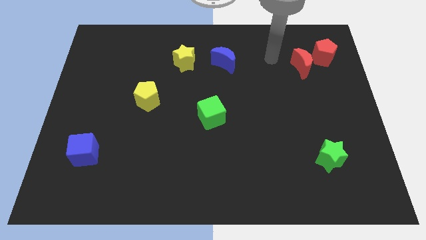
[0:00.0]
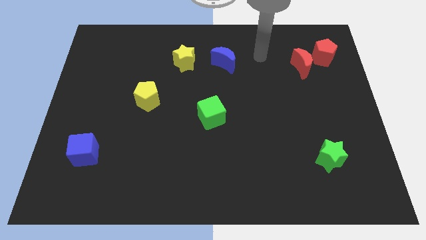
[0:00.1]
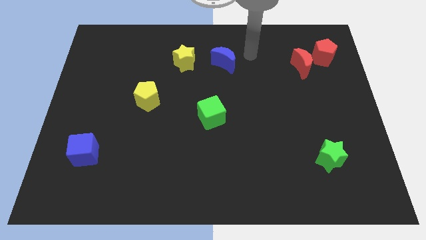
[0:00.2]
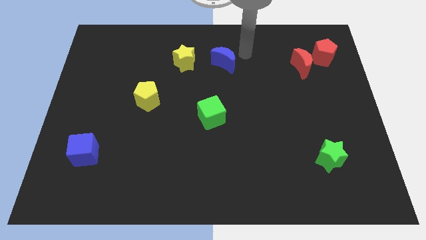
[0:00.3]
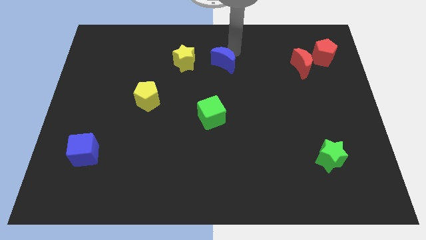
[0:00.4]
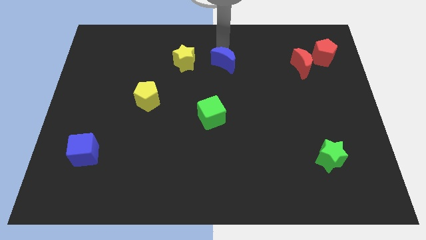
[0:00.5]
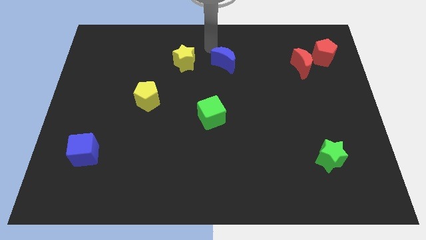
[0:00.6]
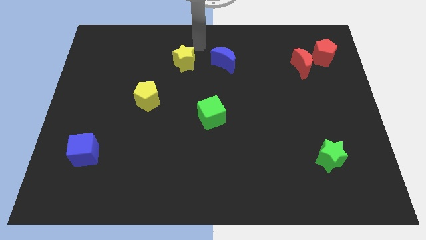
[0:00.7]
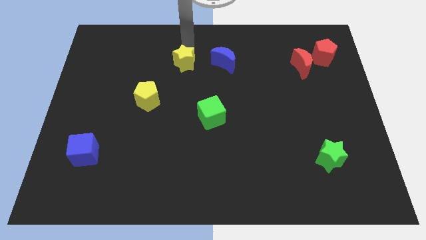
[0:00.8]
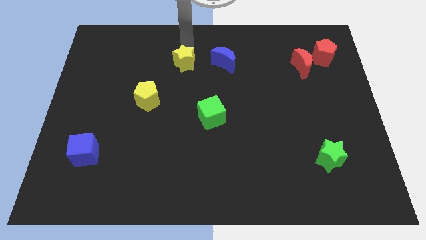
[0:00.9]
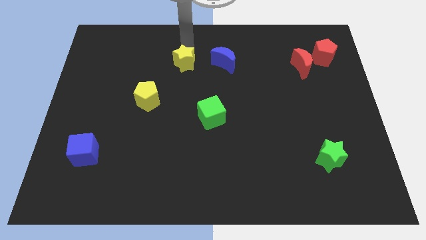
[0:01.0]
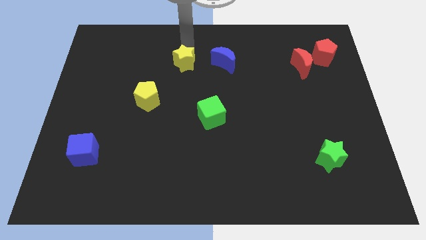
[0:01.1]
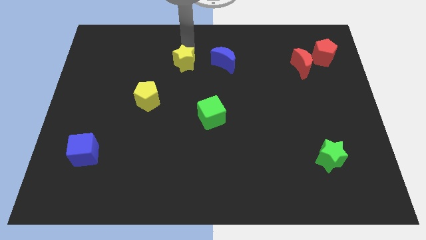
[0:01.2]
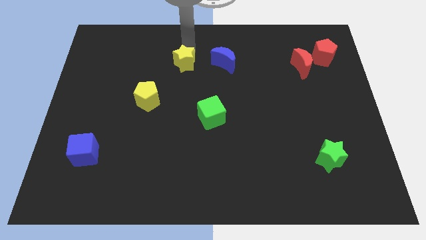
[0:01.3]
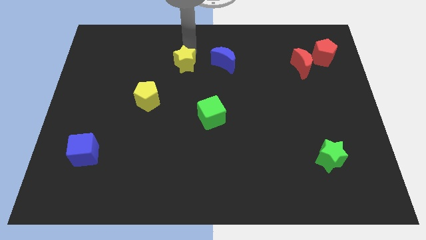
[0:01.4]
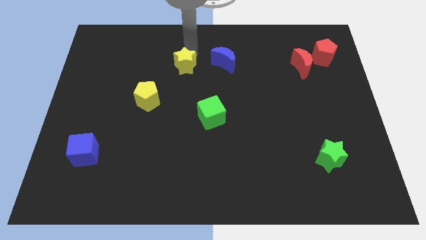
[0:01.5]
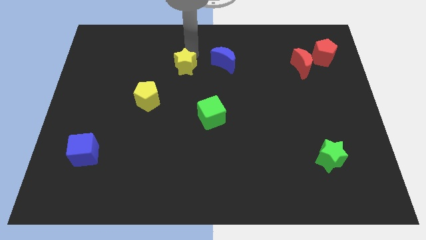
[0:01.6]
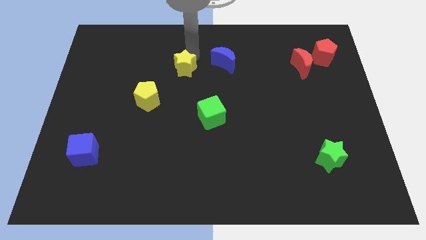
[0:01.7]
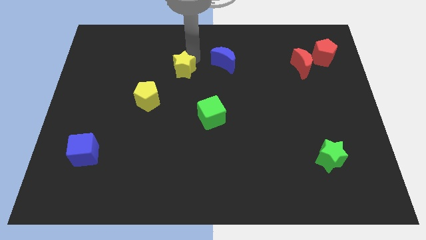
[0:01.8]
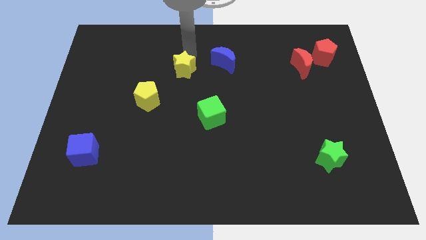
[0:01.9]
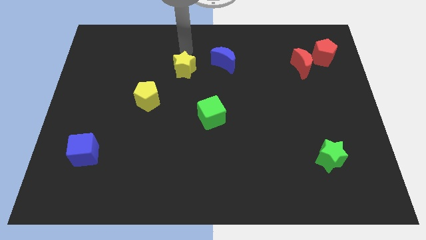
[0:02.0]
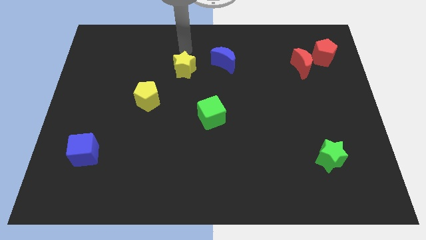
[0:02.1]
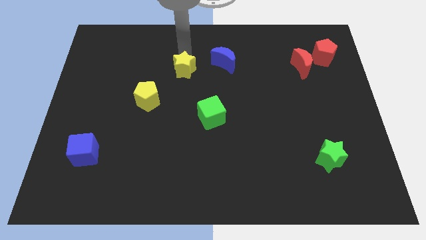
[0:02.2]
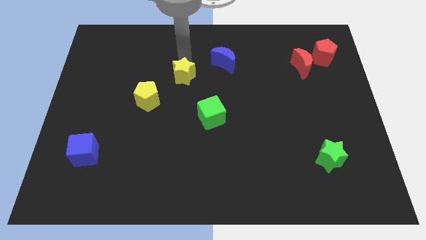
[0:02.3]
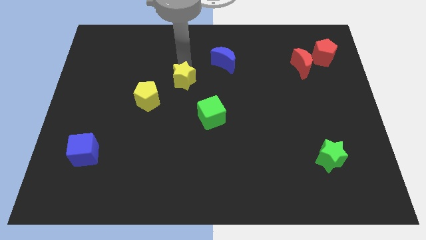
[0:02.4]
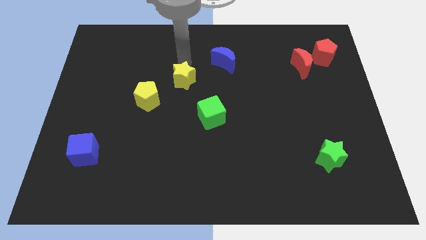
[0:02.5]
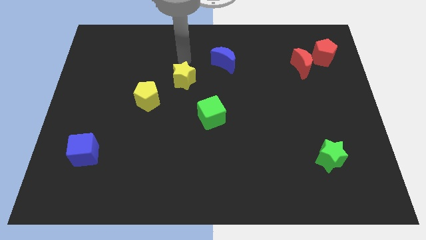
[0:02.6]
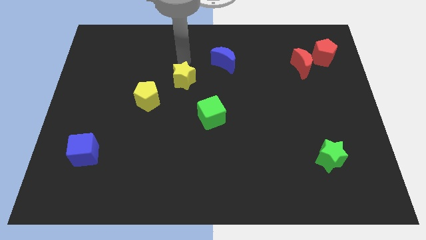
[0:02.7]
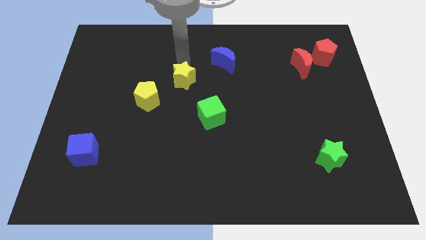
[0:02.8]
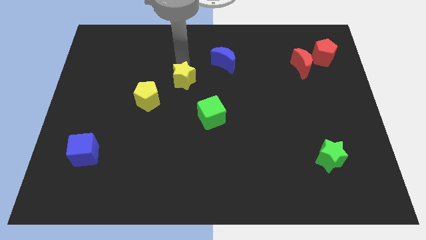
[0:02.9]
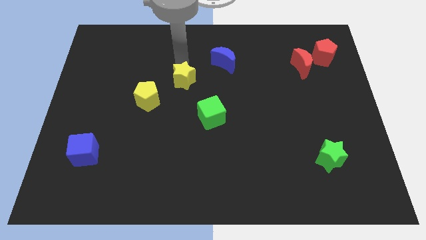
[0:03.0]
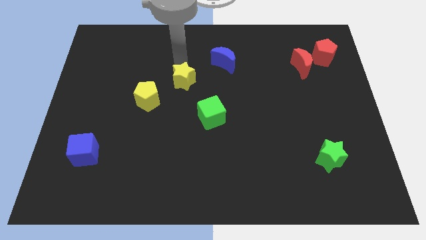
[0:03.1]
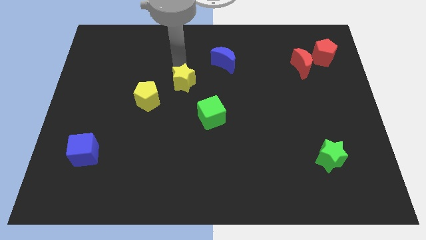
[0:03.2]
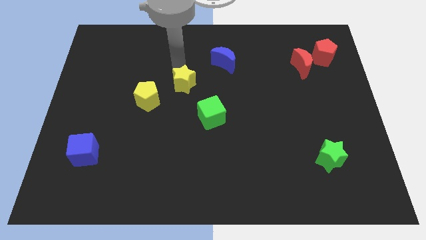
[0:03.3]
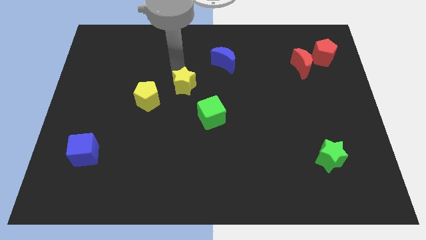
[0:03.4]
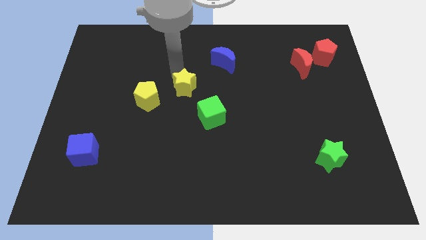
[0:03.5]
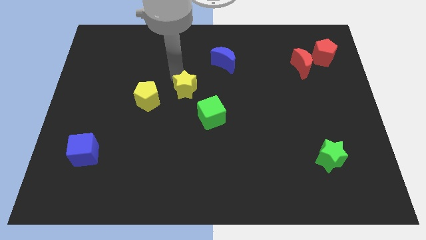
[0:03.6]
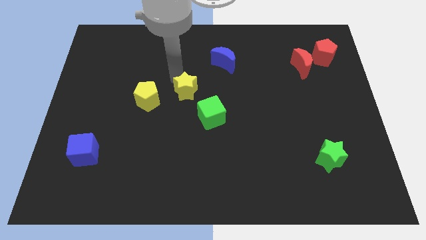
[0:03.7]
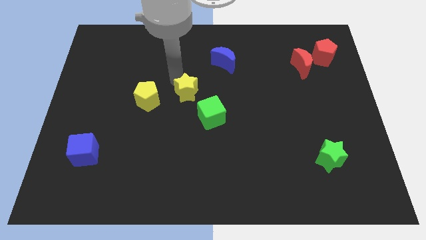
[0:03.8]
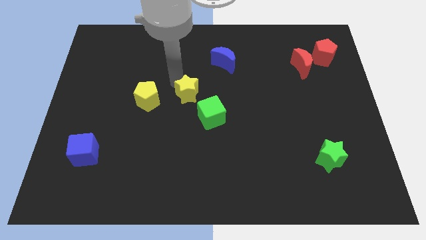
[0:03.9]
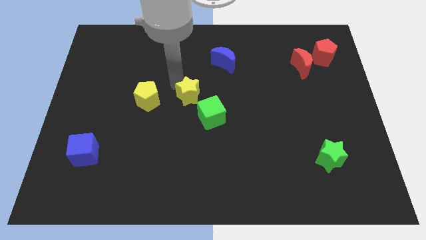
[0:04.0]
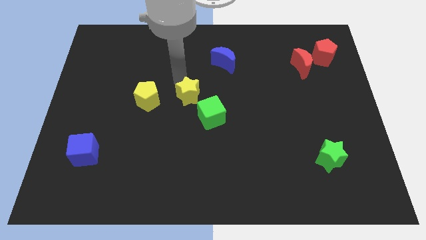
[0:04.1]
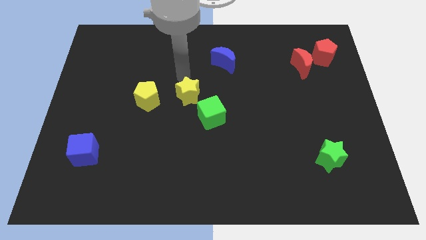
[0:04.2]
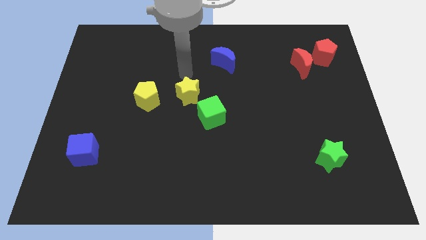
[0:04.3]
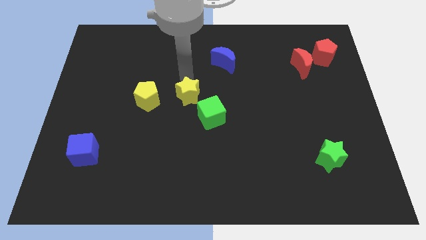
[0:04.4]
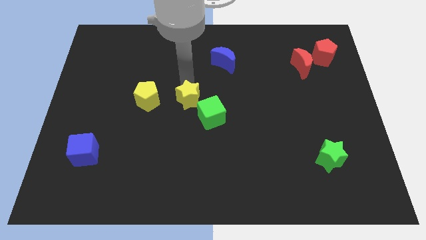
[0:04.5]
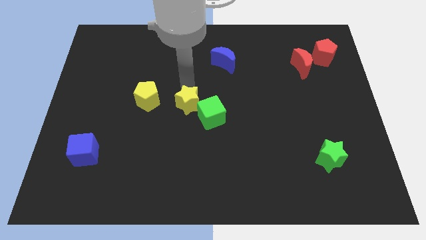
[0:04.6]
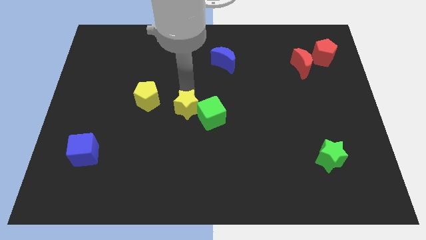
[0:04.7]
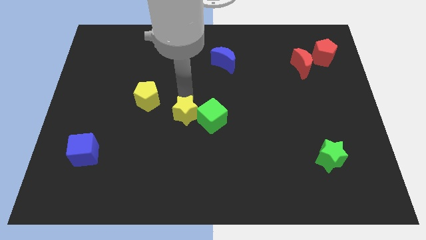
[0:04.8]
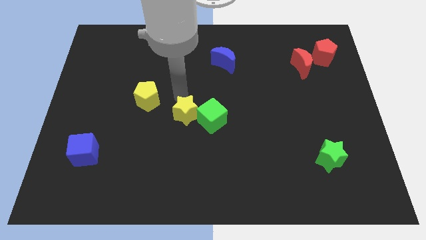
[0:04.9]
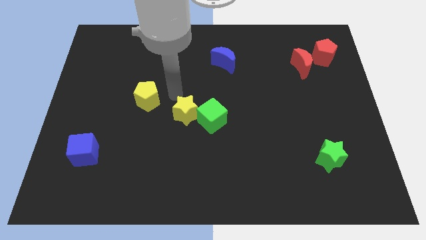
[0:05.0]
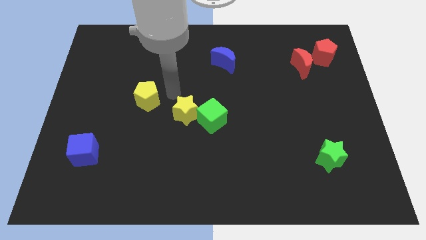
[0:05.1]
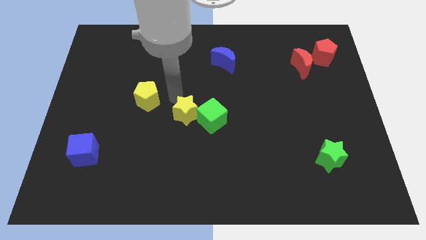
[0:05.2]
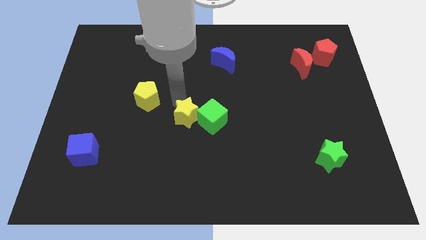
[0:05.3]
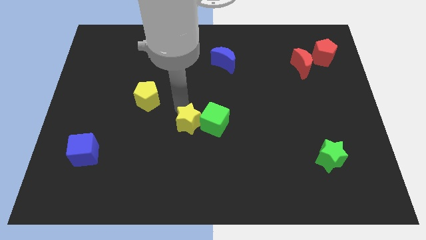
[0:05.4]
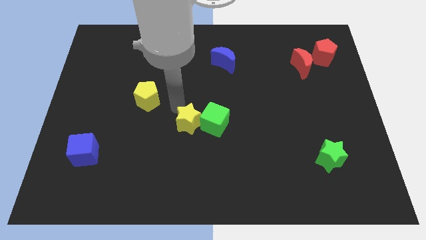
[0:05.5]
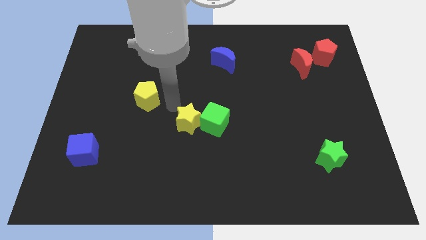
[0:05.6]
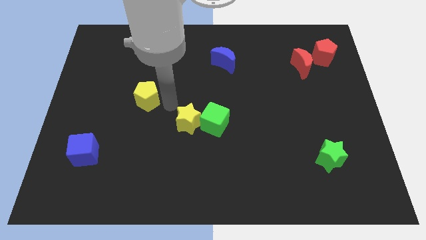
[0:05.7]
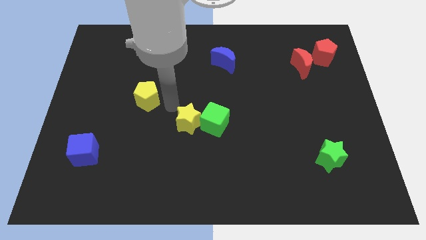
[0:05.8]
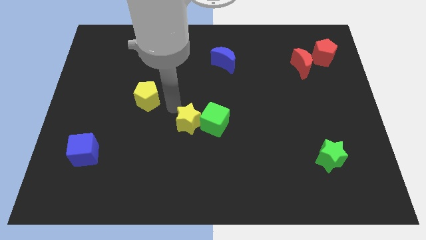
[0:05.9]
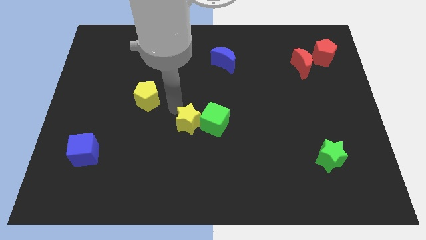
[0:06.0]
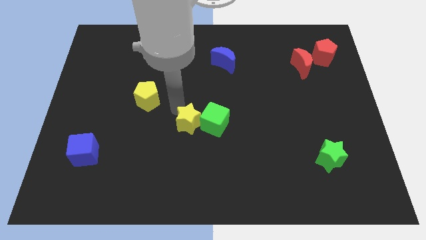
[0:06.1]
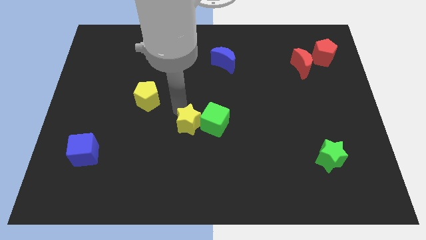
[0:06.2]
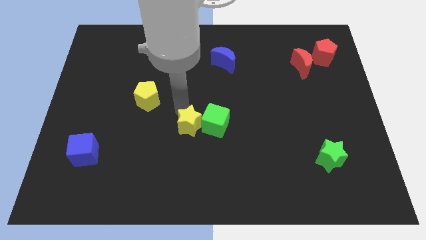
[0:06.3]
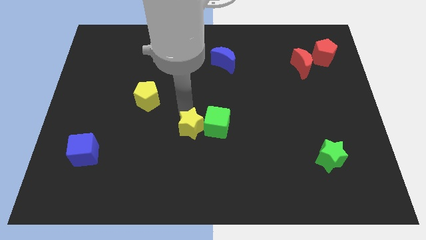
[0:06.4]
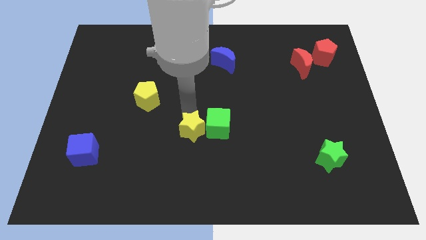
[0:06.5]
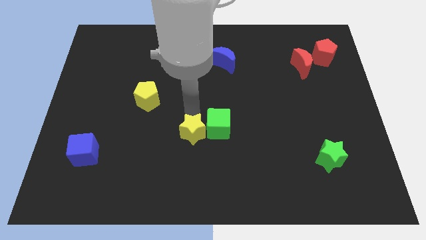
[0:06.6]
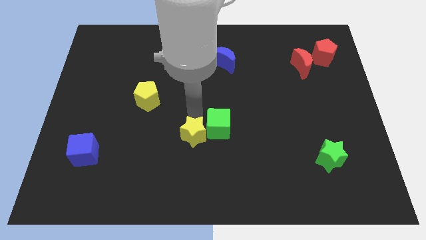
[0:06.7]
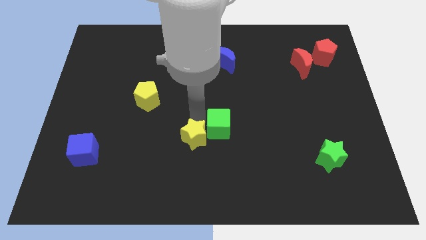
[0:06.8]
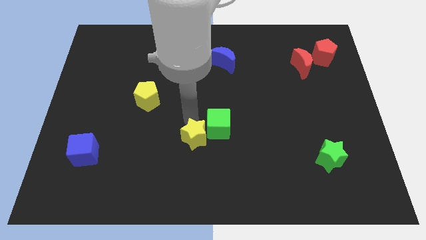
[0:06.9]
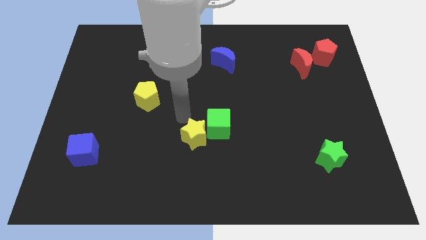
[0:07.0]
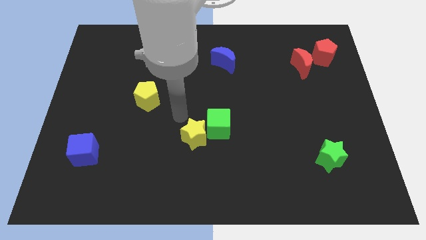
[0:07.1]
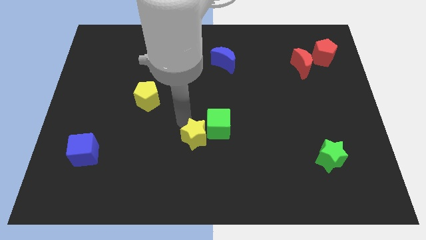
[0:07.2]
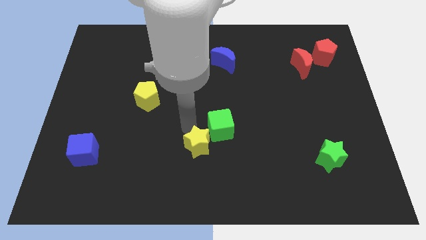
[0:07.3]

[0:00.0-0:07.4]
push the yellow star to the bottom of the green cube
